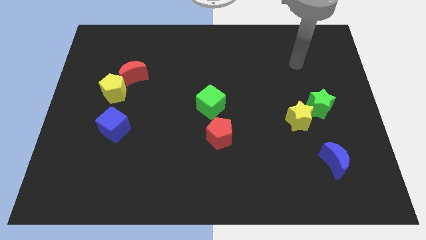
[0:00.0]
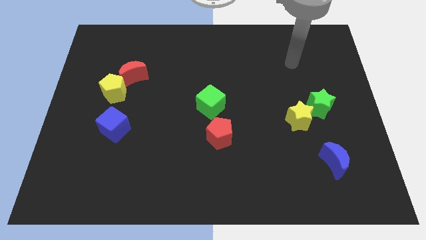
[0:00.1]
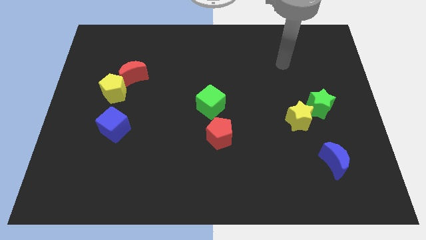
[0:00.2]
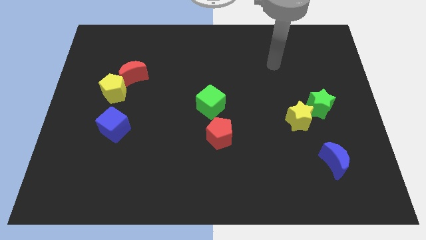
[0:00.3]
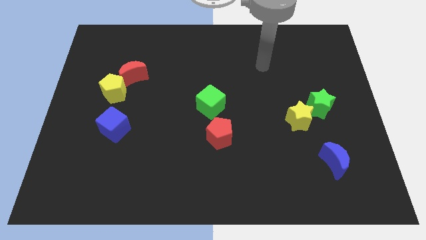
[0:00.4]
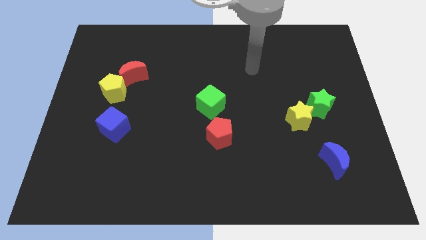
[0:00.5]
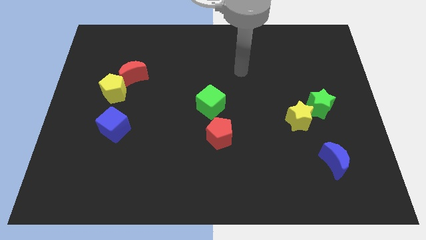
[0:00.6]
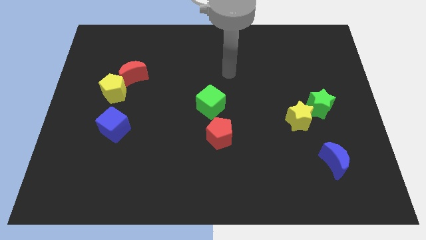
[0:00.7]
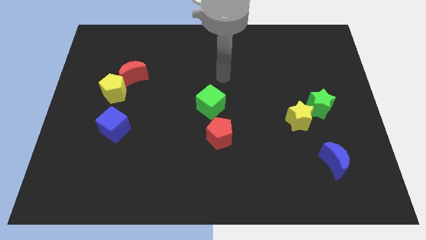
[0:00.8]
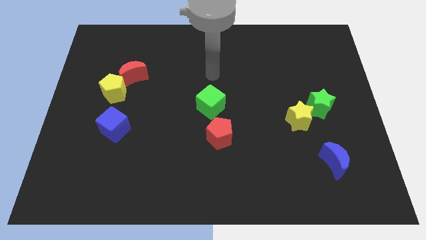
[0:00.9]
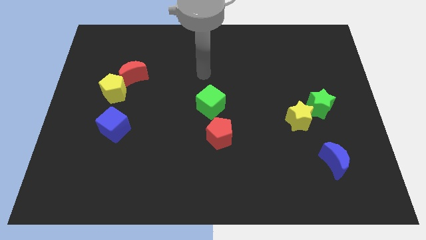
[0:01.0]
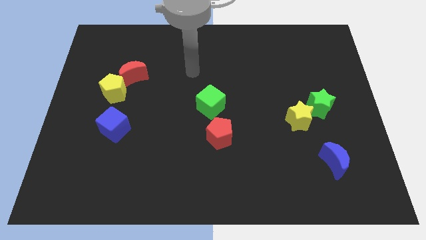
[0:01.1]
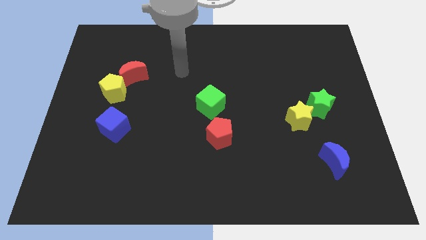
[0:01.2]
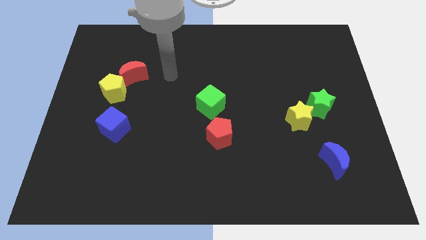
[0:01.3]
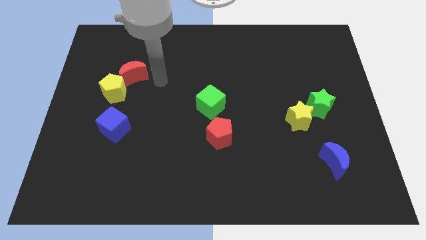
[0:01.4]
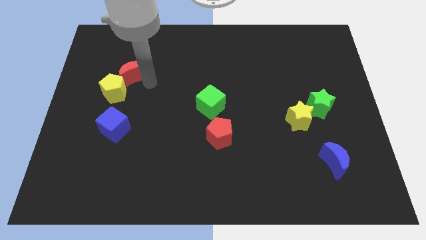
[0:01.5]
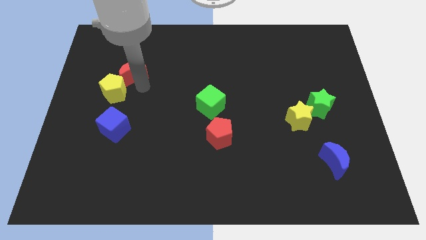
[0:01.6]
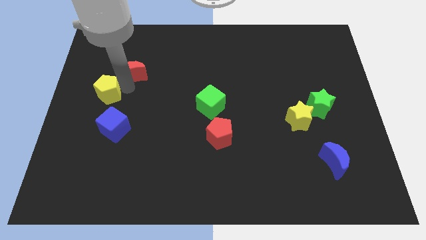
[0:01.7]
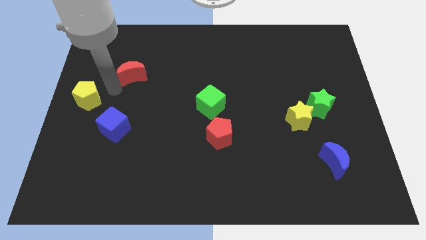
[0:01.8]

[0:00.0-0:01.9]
separate the red moon from the yellow pentagon

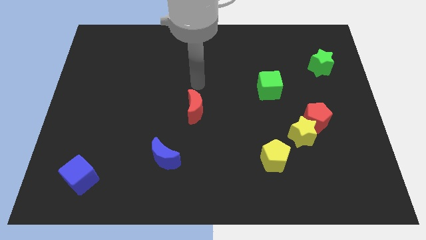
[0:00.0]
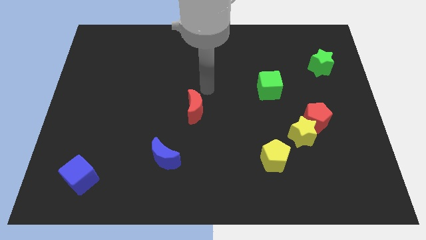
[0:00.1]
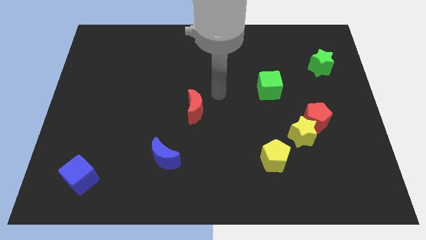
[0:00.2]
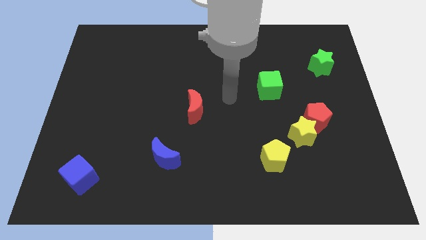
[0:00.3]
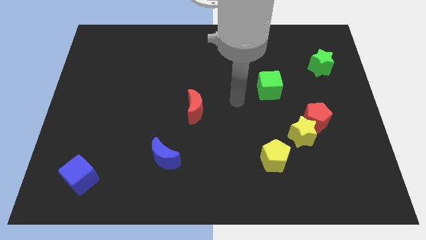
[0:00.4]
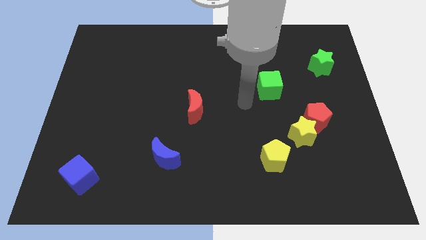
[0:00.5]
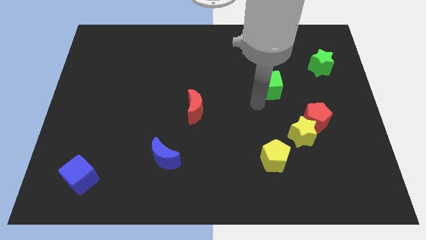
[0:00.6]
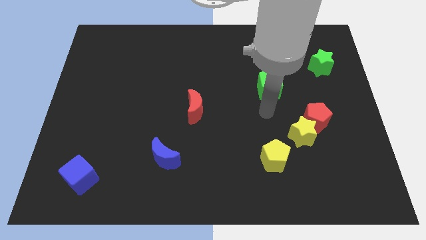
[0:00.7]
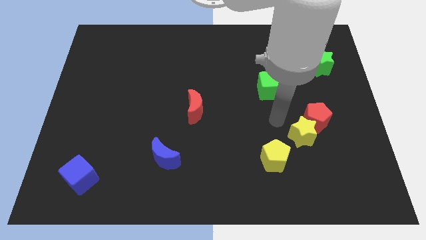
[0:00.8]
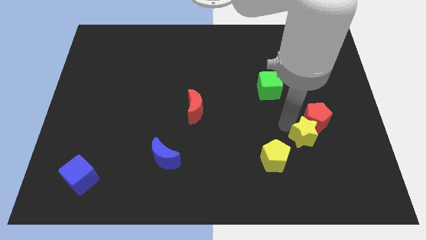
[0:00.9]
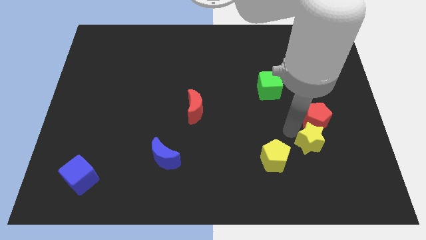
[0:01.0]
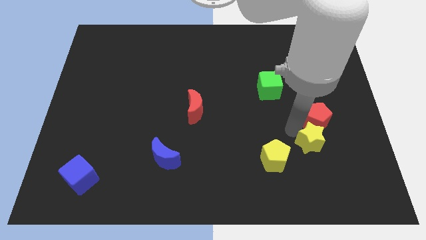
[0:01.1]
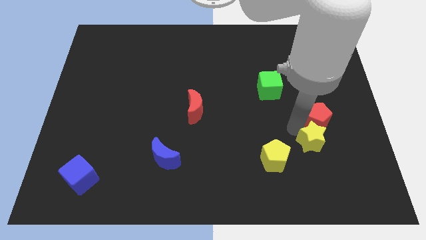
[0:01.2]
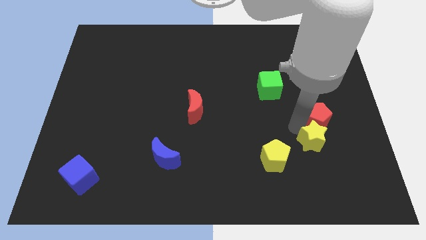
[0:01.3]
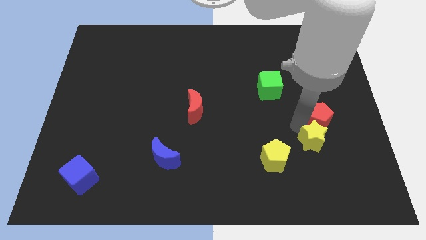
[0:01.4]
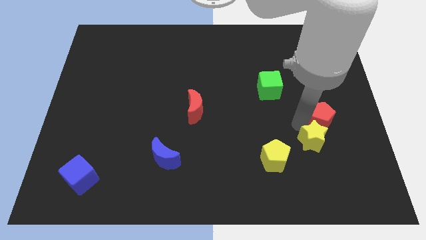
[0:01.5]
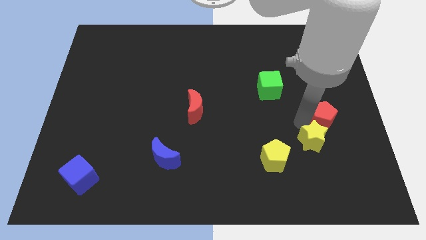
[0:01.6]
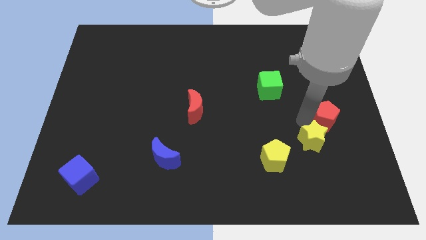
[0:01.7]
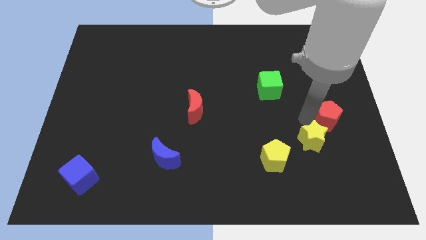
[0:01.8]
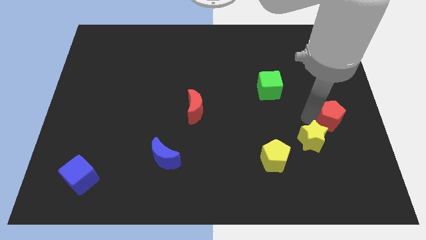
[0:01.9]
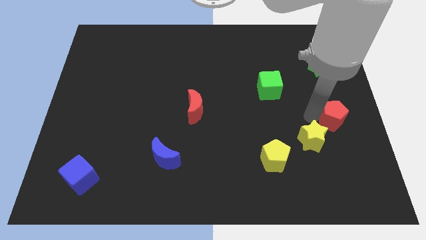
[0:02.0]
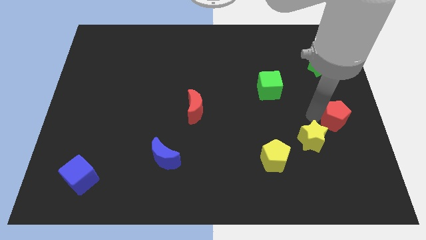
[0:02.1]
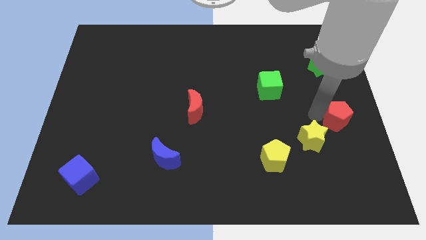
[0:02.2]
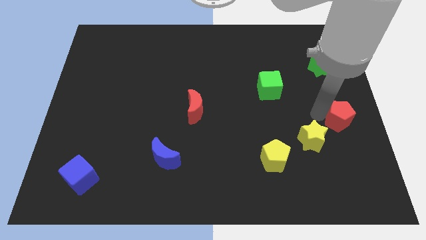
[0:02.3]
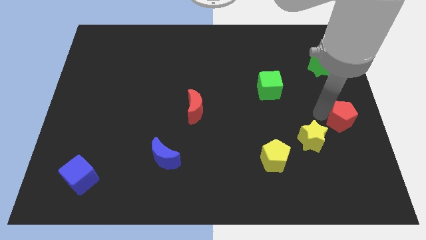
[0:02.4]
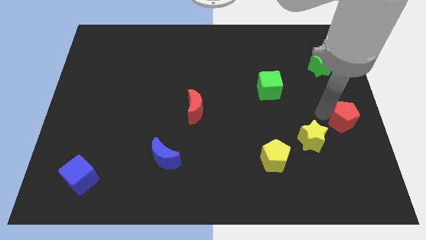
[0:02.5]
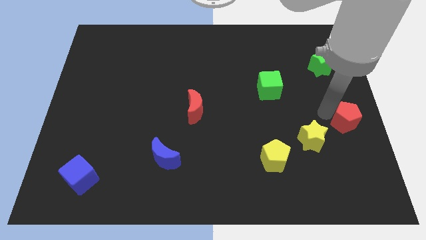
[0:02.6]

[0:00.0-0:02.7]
move the red pentagon away from the yellow star

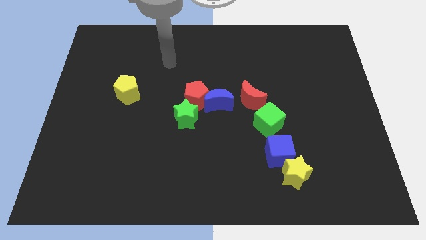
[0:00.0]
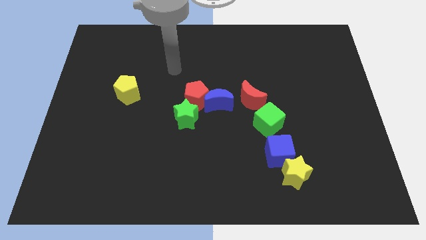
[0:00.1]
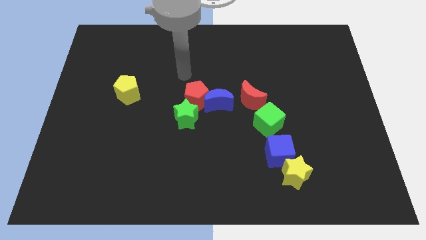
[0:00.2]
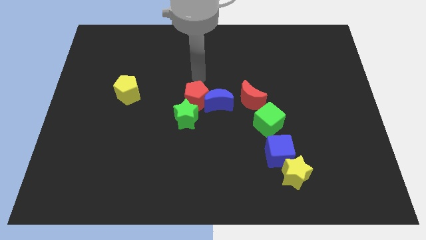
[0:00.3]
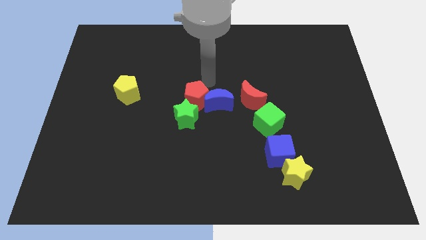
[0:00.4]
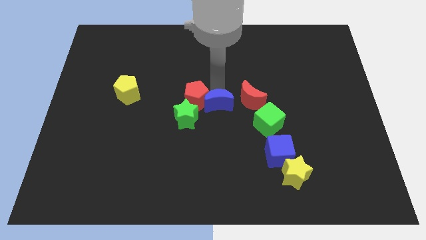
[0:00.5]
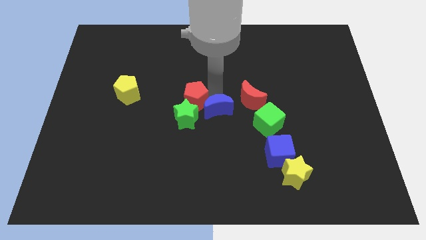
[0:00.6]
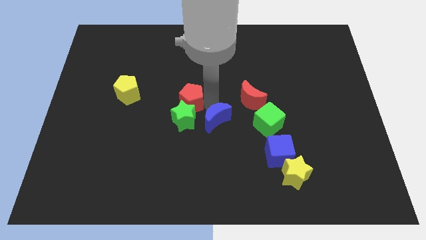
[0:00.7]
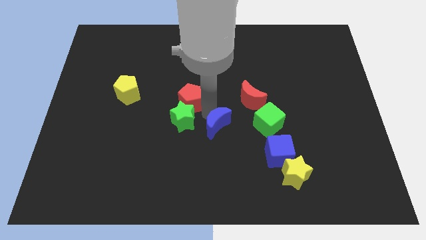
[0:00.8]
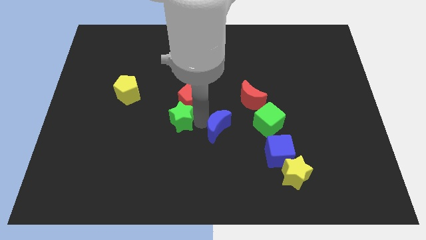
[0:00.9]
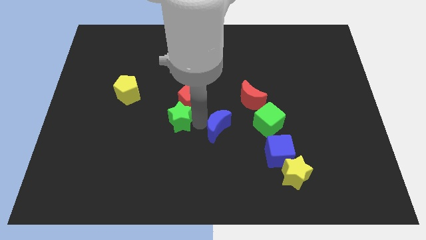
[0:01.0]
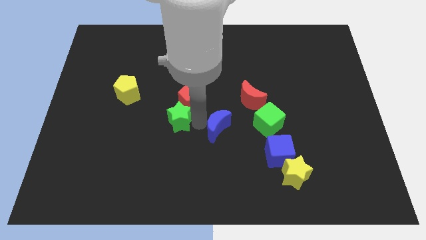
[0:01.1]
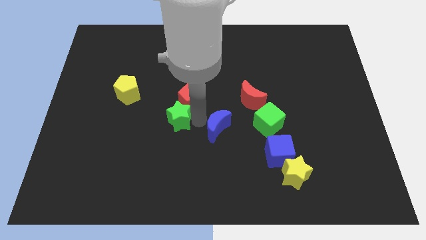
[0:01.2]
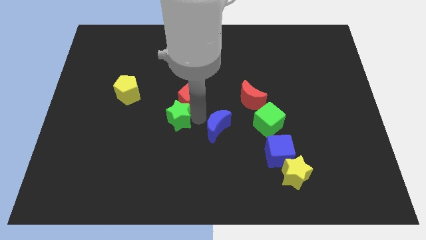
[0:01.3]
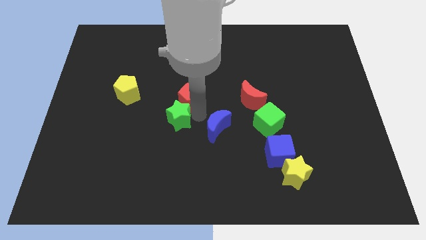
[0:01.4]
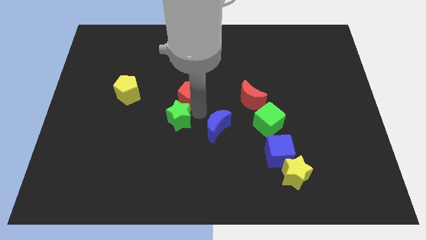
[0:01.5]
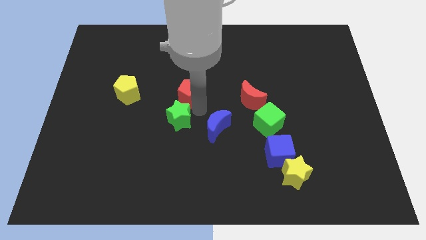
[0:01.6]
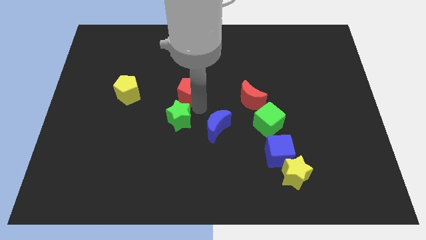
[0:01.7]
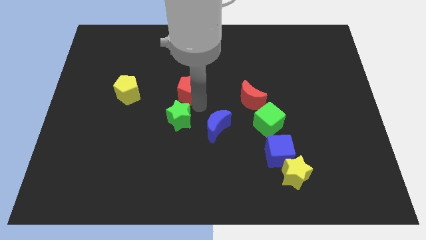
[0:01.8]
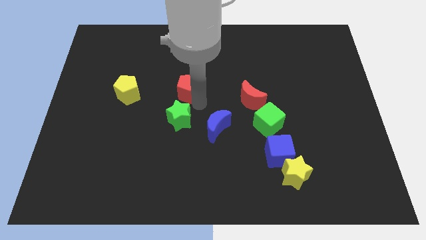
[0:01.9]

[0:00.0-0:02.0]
pull the red pentagon apart from the blue moon and green star

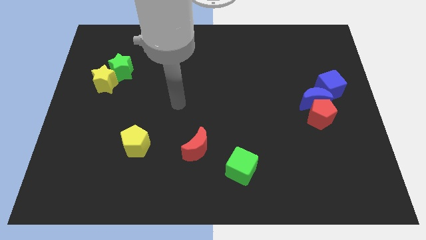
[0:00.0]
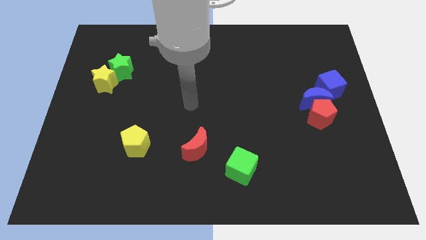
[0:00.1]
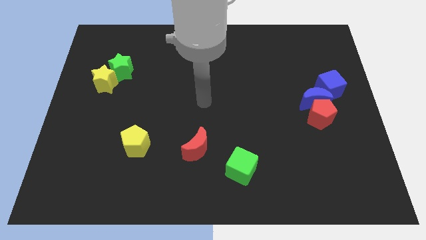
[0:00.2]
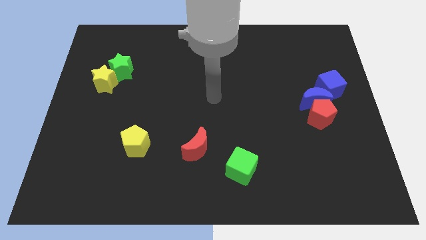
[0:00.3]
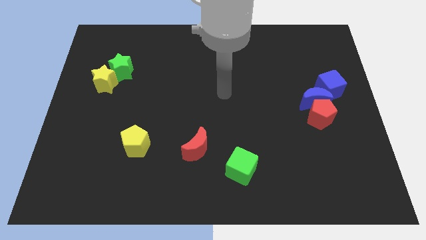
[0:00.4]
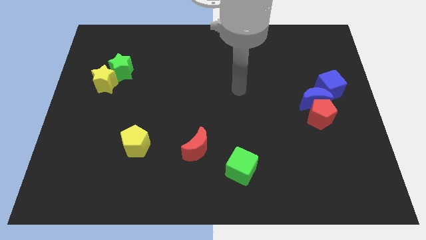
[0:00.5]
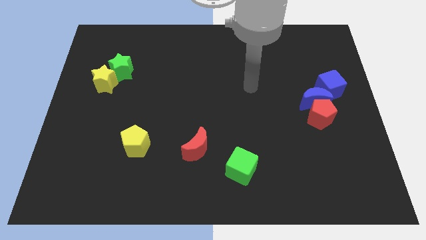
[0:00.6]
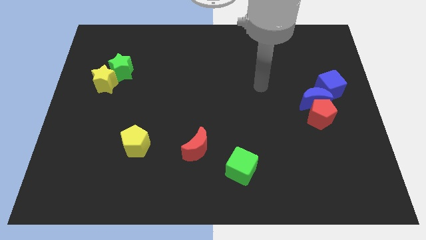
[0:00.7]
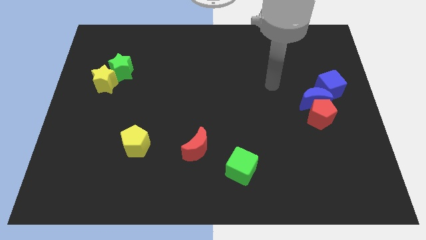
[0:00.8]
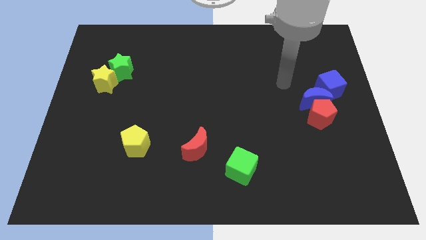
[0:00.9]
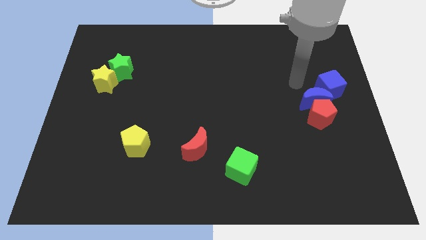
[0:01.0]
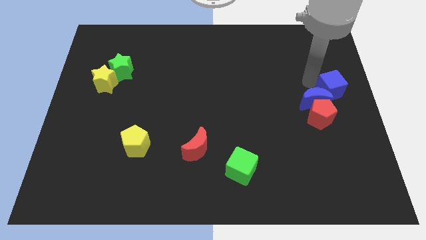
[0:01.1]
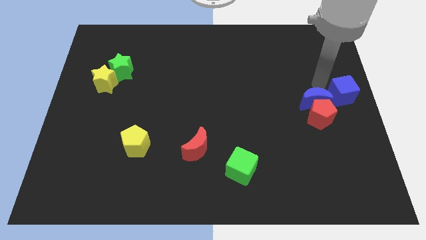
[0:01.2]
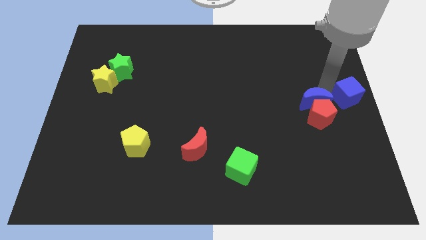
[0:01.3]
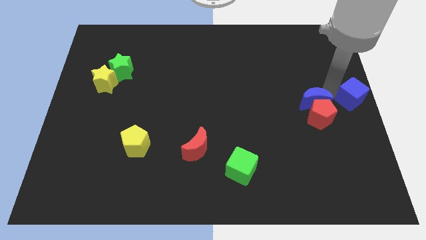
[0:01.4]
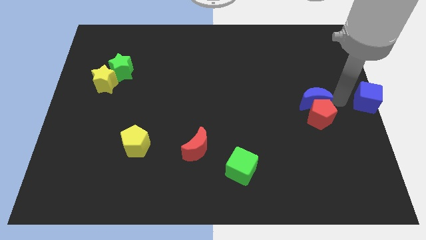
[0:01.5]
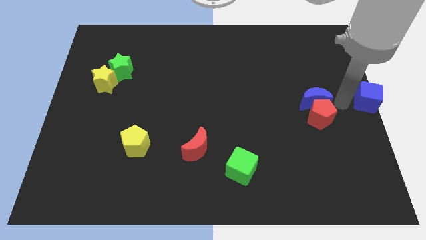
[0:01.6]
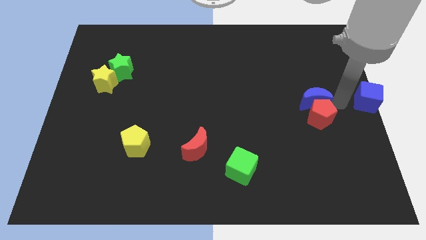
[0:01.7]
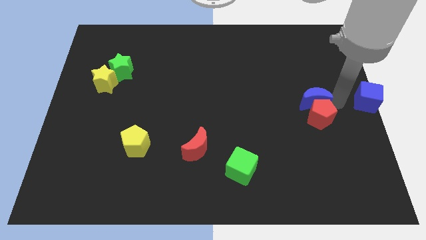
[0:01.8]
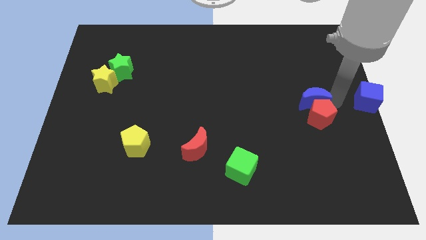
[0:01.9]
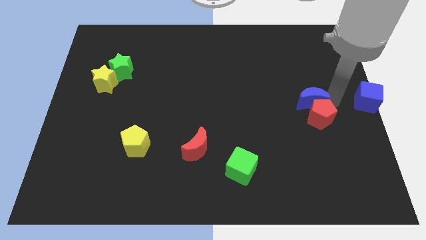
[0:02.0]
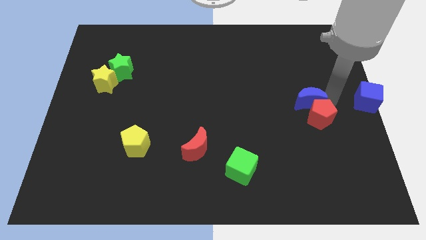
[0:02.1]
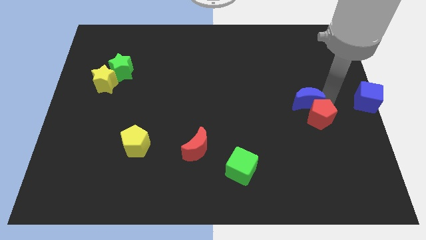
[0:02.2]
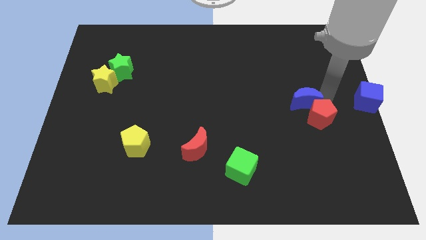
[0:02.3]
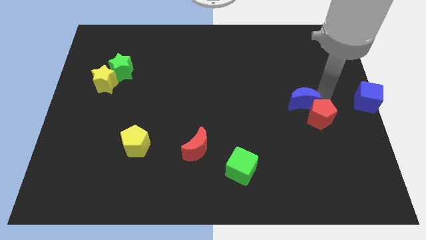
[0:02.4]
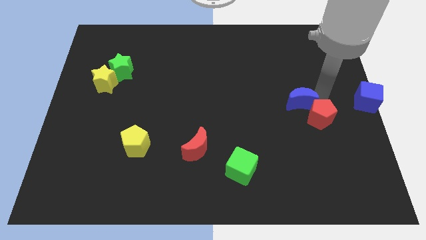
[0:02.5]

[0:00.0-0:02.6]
pull the blue moon apart from the red pentagon and blue cube

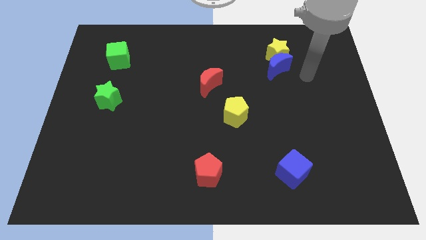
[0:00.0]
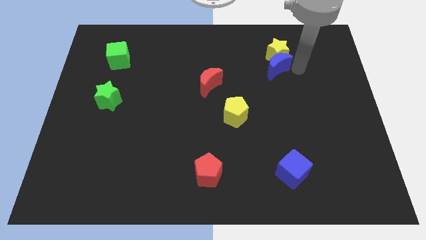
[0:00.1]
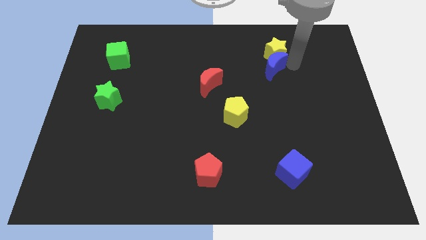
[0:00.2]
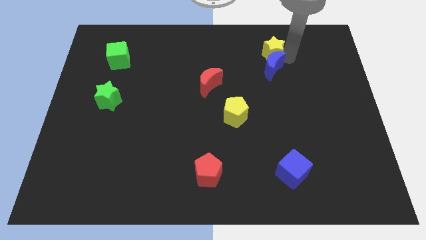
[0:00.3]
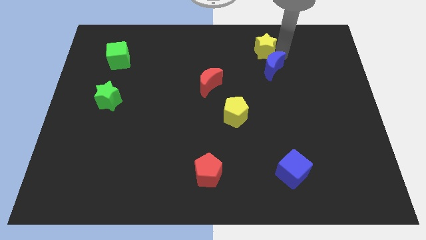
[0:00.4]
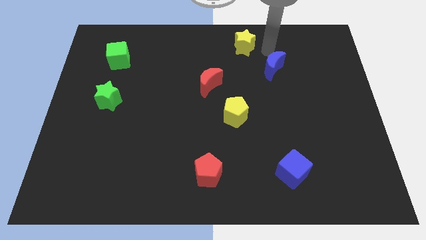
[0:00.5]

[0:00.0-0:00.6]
move the blue moon away from the yellow star
